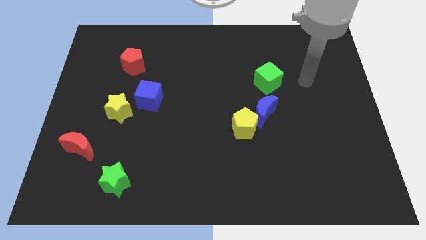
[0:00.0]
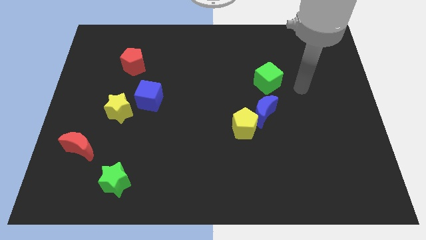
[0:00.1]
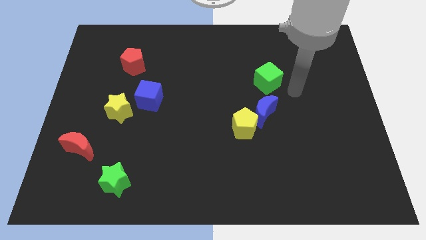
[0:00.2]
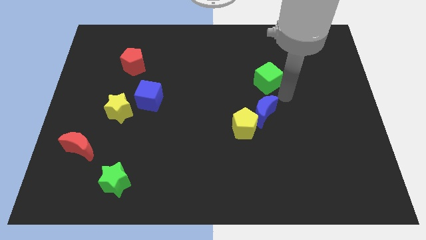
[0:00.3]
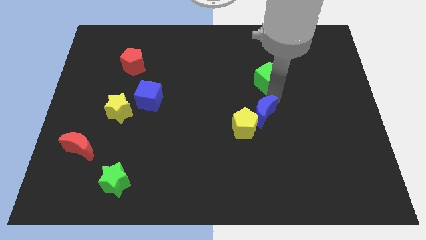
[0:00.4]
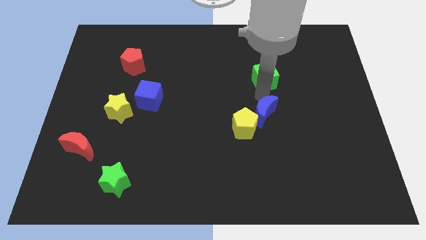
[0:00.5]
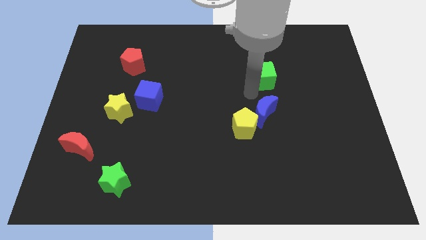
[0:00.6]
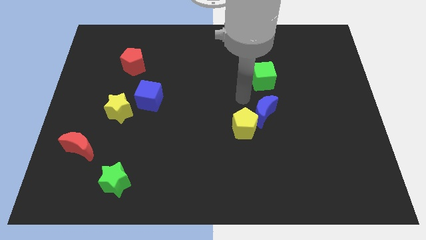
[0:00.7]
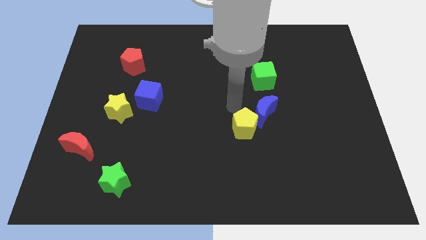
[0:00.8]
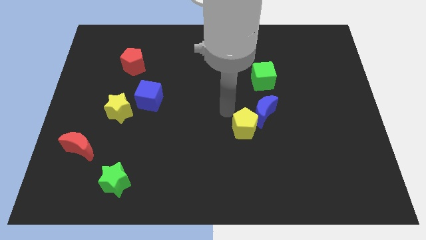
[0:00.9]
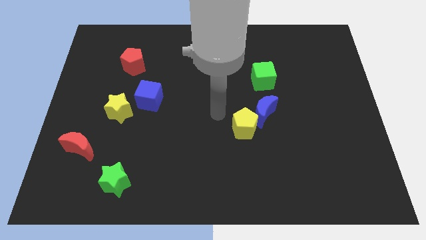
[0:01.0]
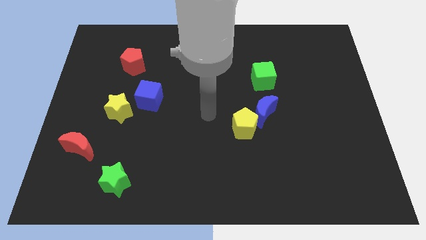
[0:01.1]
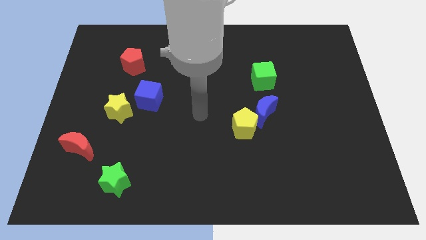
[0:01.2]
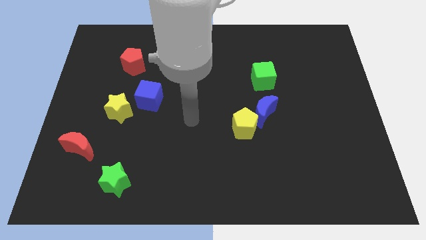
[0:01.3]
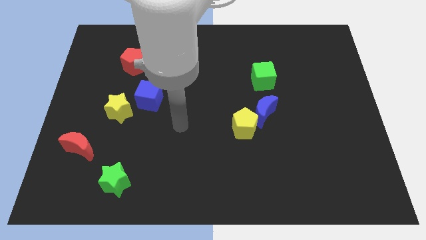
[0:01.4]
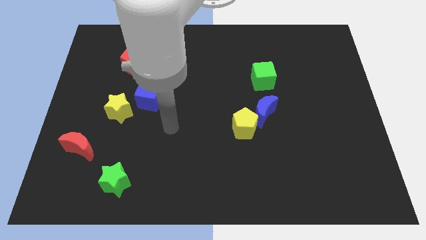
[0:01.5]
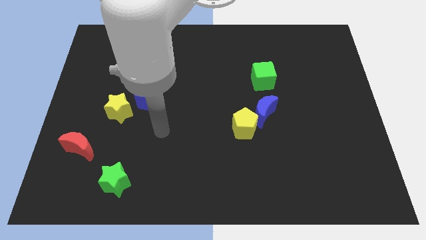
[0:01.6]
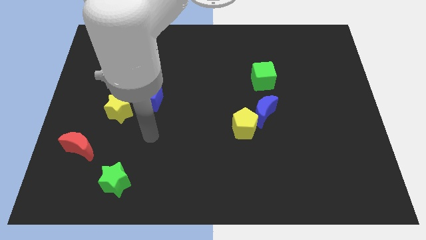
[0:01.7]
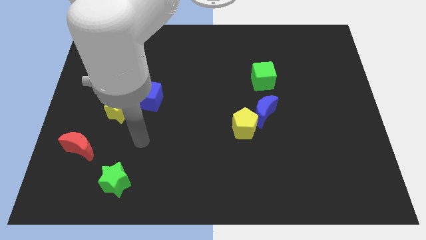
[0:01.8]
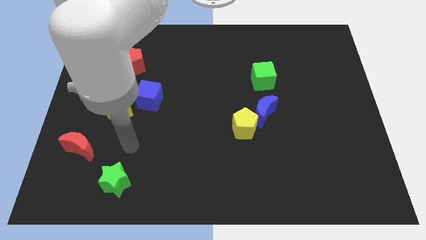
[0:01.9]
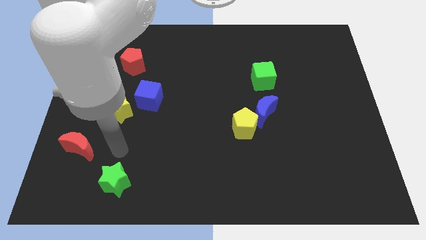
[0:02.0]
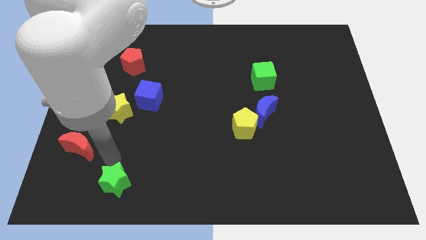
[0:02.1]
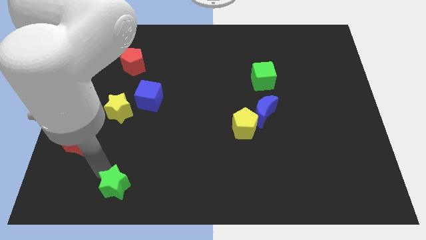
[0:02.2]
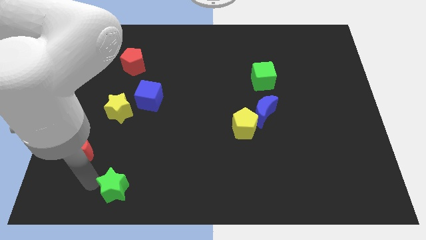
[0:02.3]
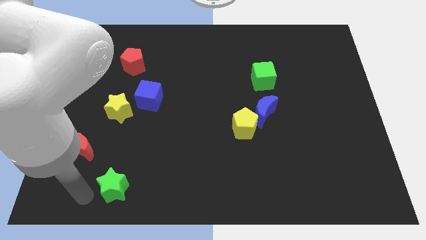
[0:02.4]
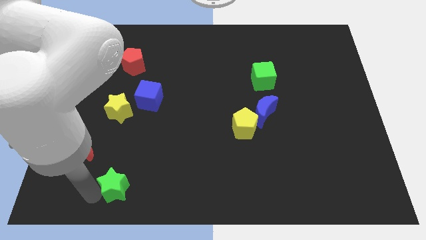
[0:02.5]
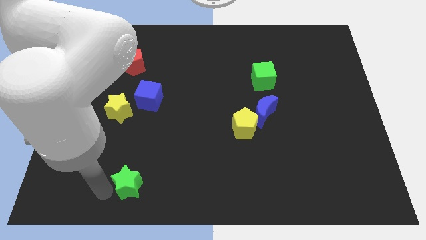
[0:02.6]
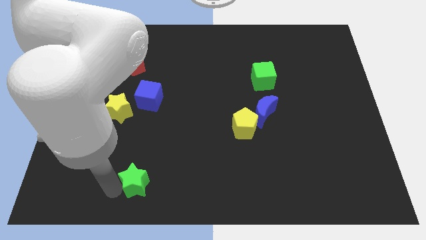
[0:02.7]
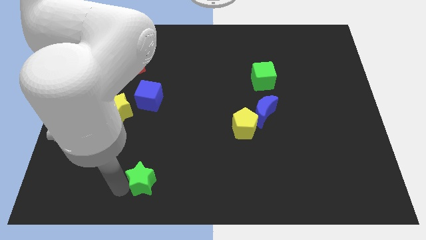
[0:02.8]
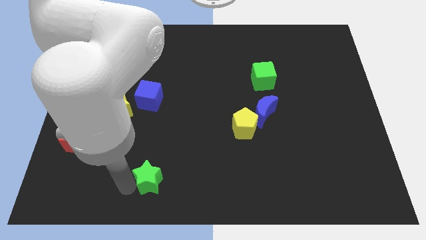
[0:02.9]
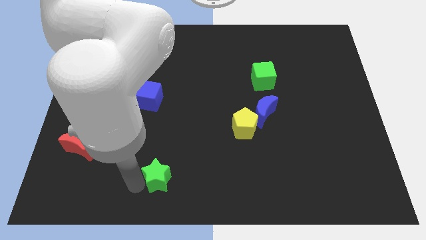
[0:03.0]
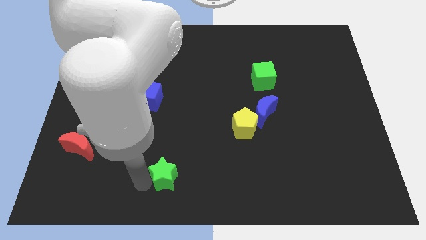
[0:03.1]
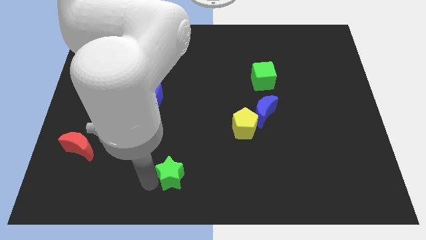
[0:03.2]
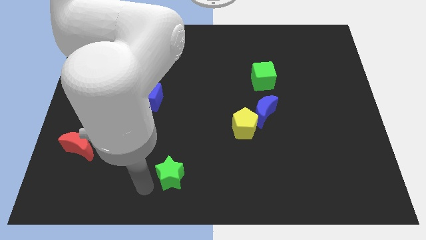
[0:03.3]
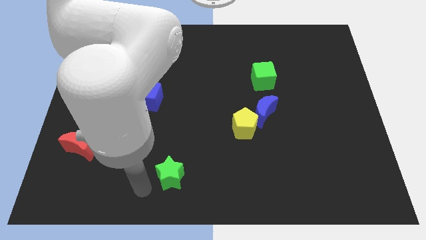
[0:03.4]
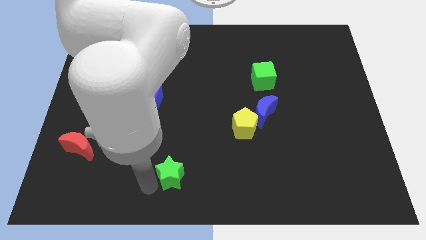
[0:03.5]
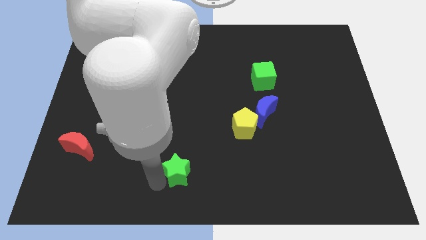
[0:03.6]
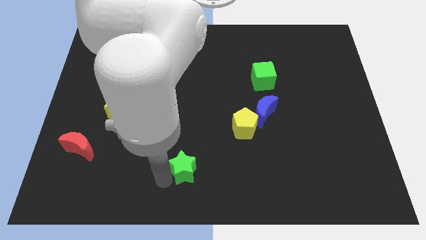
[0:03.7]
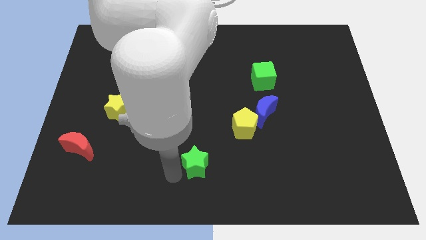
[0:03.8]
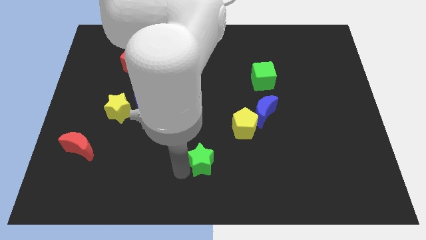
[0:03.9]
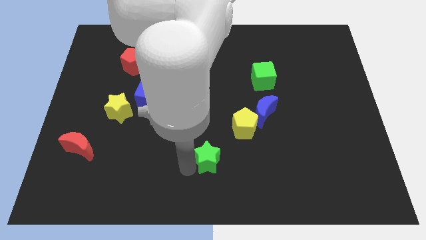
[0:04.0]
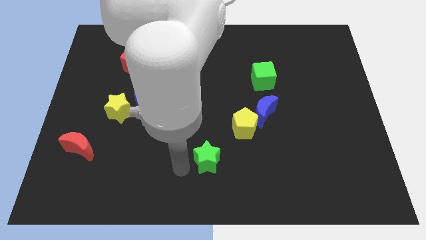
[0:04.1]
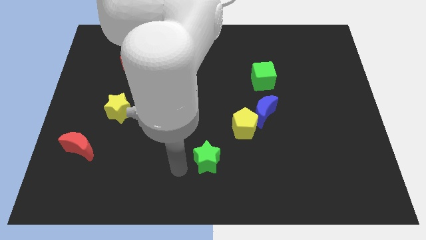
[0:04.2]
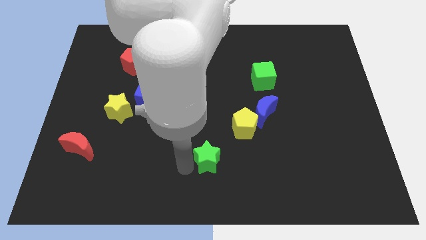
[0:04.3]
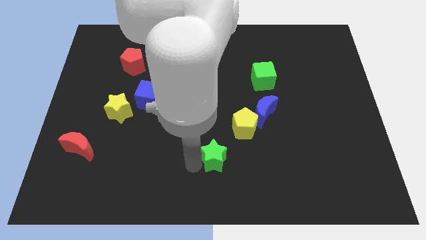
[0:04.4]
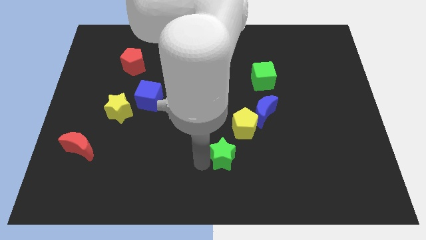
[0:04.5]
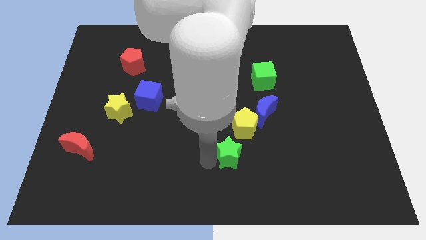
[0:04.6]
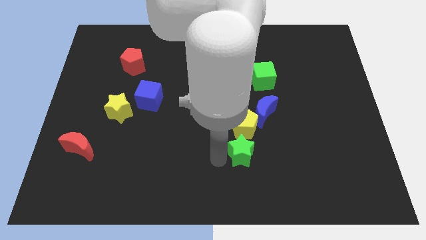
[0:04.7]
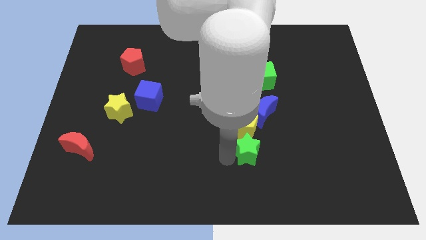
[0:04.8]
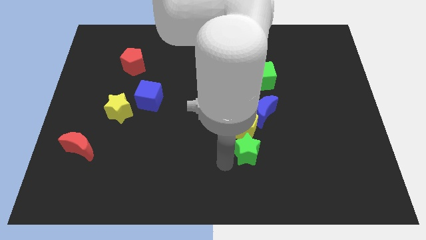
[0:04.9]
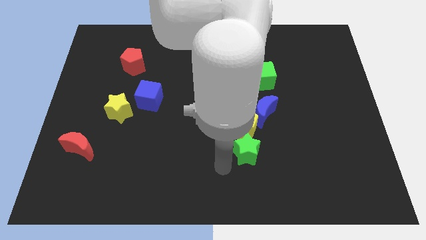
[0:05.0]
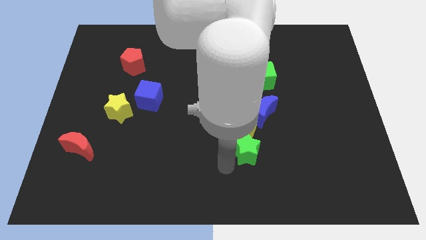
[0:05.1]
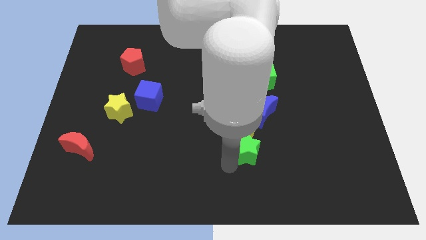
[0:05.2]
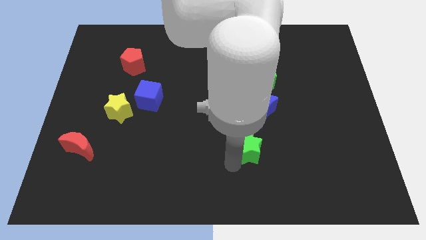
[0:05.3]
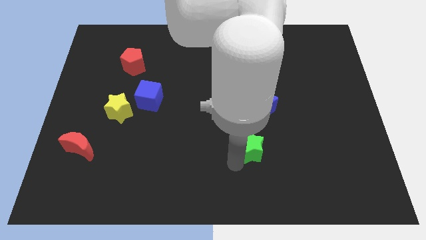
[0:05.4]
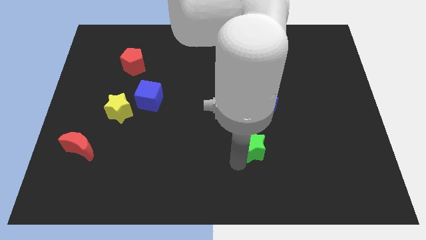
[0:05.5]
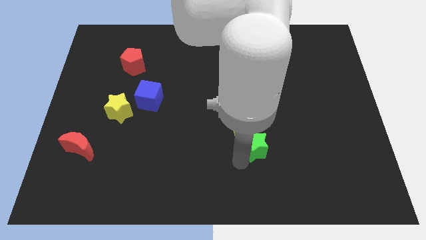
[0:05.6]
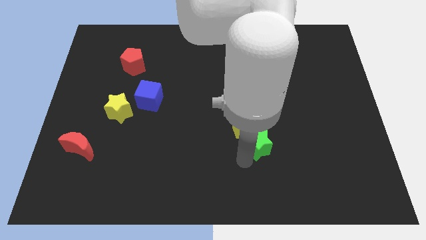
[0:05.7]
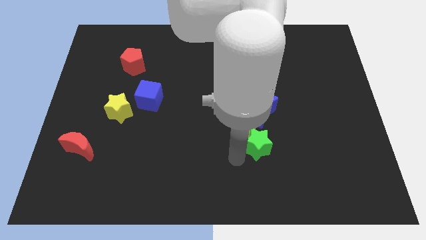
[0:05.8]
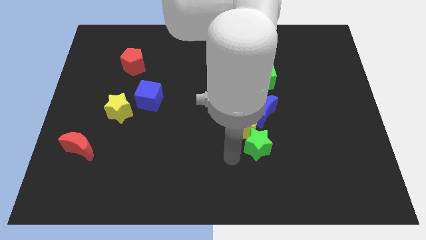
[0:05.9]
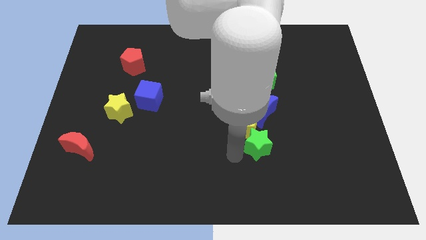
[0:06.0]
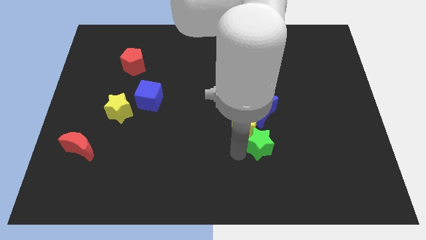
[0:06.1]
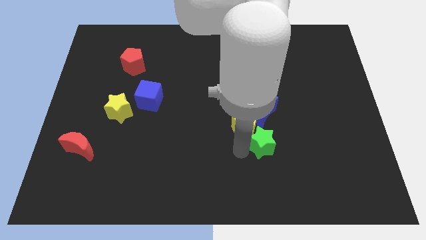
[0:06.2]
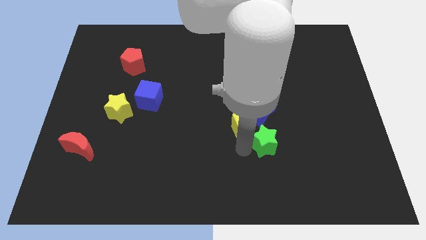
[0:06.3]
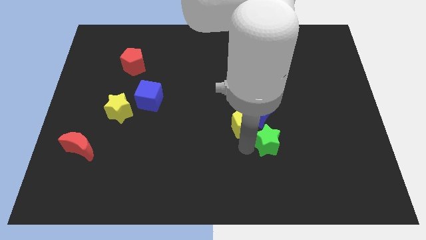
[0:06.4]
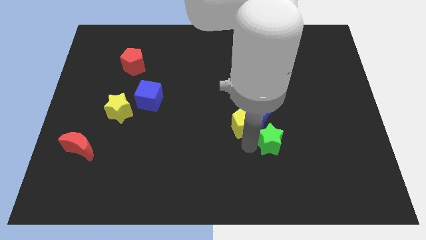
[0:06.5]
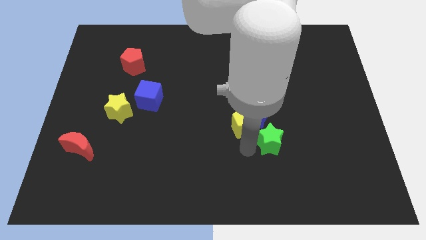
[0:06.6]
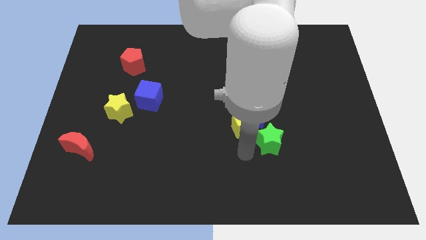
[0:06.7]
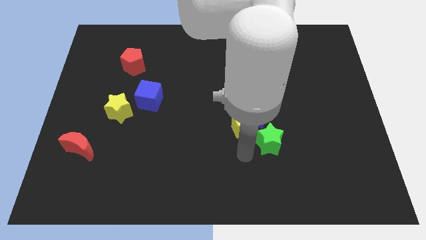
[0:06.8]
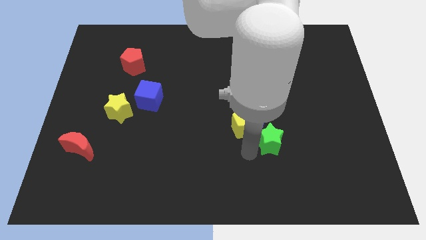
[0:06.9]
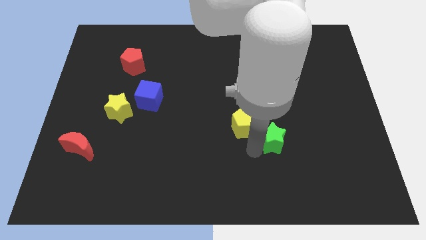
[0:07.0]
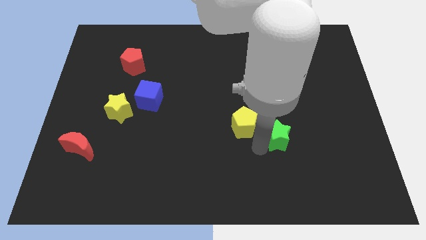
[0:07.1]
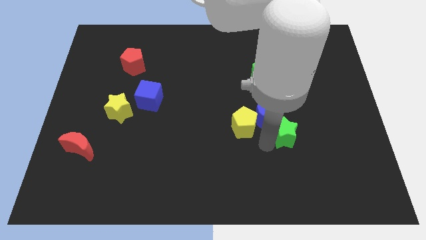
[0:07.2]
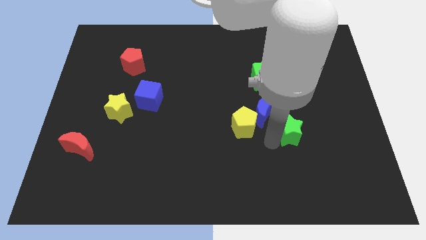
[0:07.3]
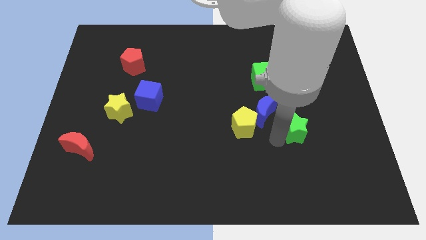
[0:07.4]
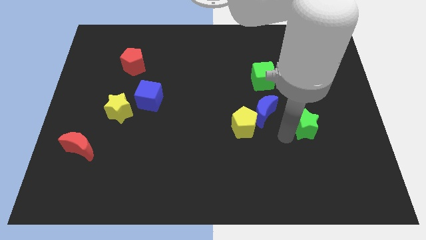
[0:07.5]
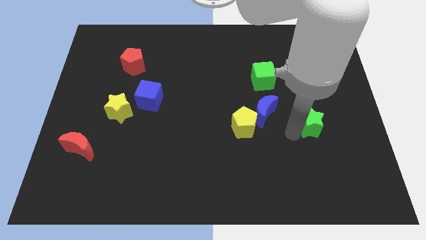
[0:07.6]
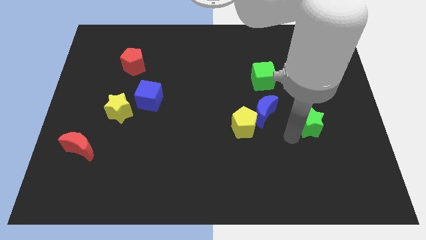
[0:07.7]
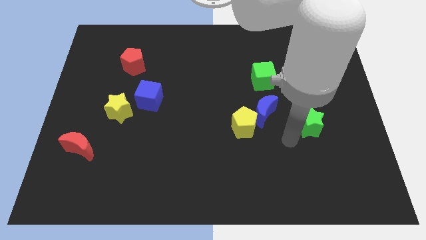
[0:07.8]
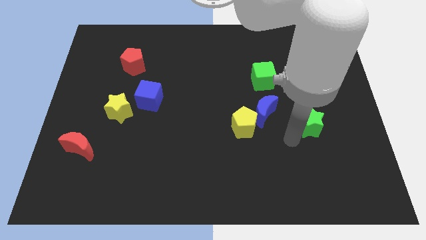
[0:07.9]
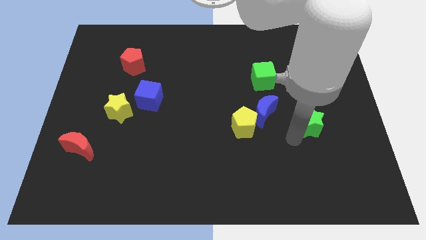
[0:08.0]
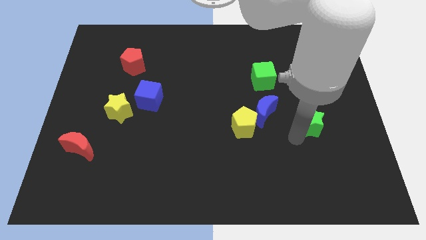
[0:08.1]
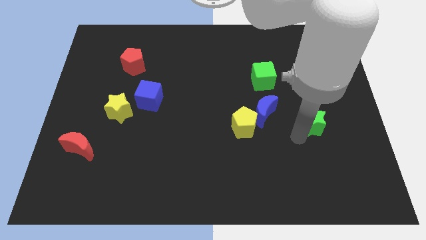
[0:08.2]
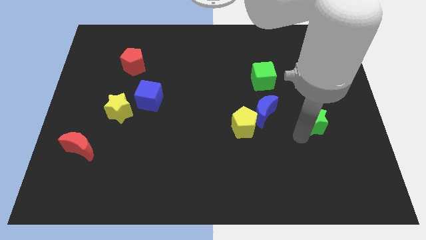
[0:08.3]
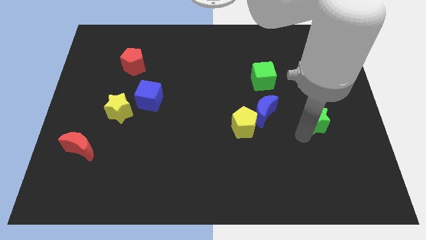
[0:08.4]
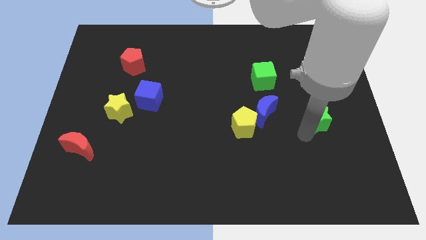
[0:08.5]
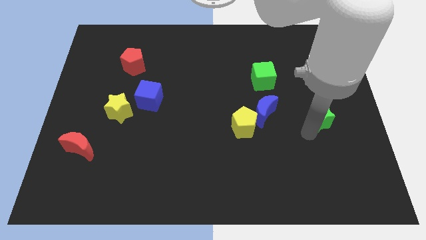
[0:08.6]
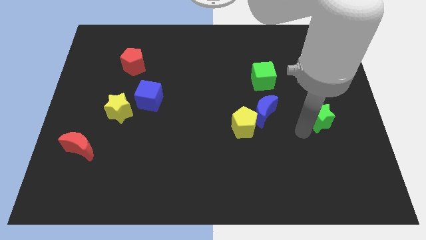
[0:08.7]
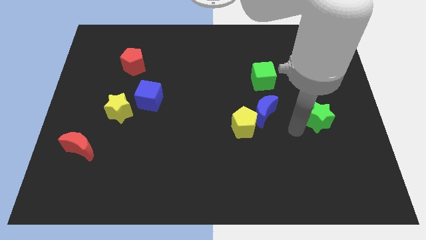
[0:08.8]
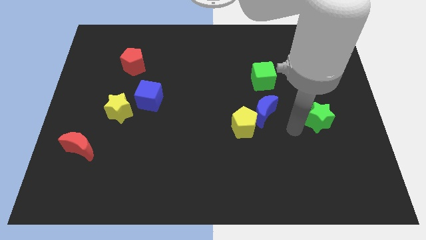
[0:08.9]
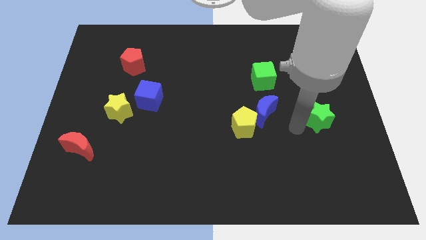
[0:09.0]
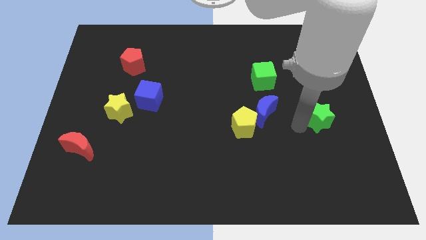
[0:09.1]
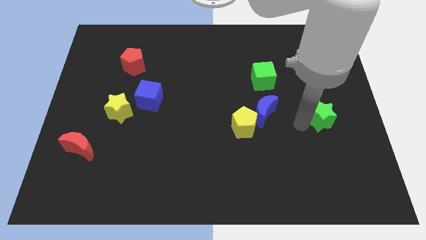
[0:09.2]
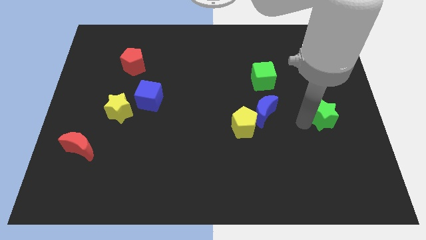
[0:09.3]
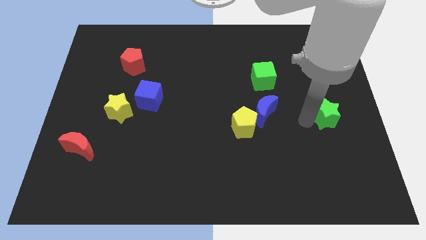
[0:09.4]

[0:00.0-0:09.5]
move the green star to the center right
